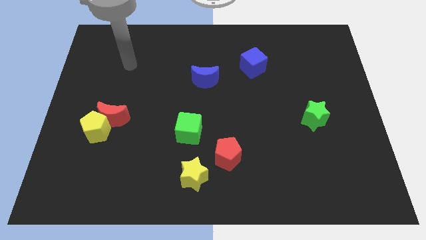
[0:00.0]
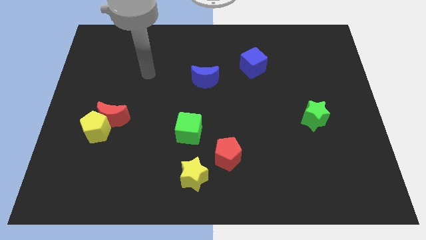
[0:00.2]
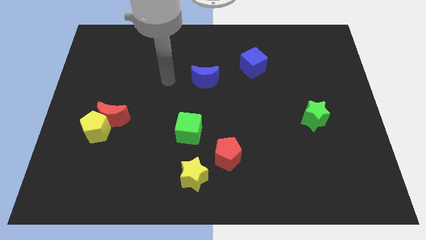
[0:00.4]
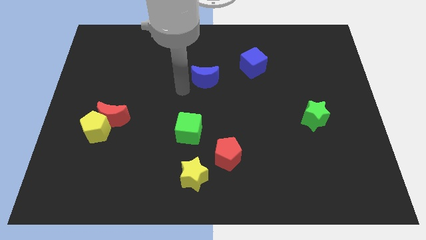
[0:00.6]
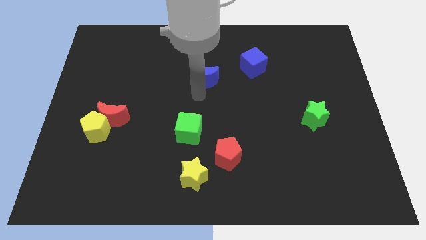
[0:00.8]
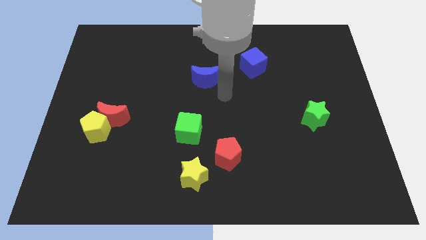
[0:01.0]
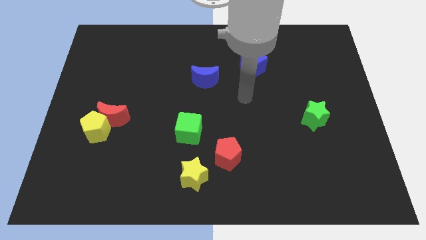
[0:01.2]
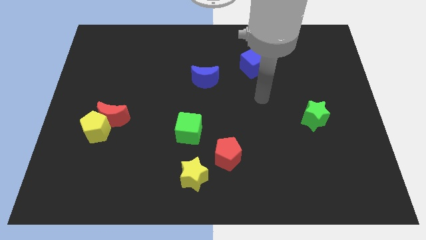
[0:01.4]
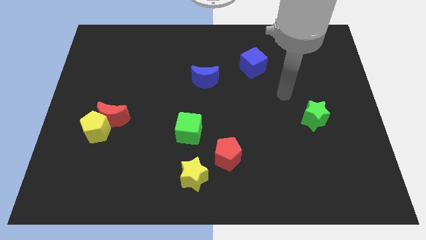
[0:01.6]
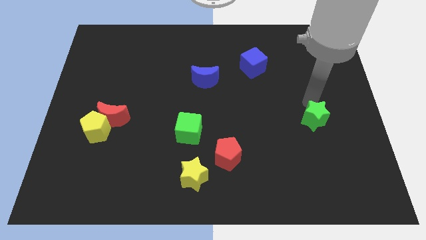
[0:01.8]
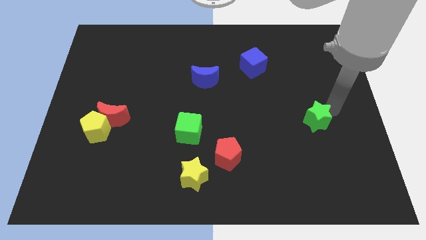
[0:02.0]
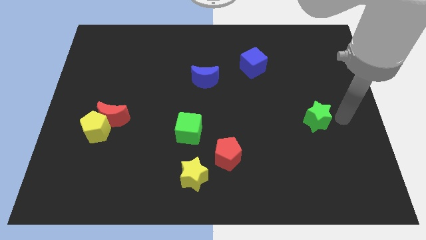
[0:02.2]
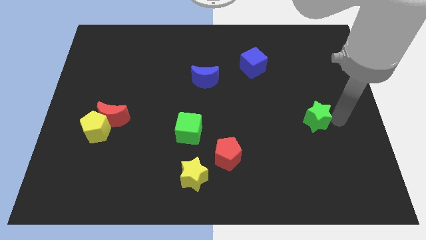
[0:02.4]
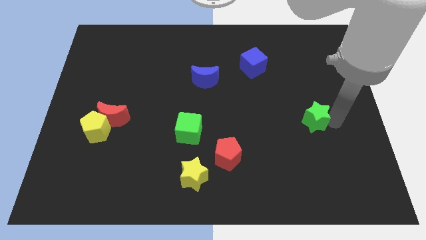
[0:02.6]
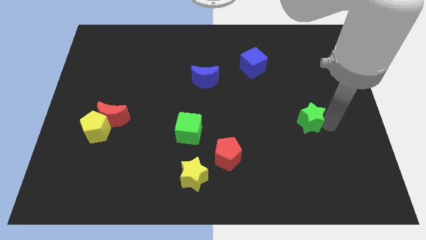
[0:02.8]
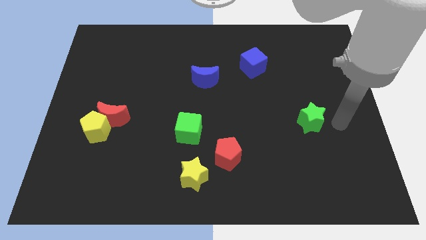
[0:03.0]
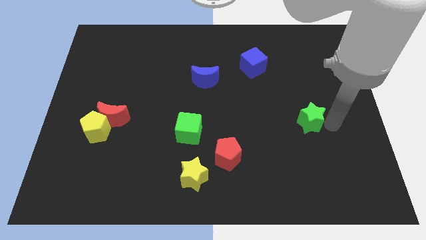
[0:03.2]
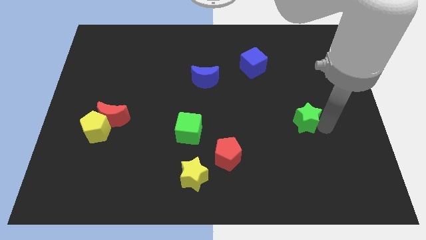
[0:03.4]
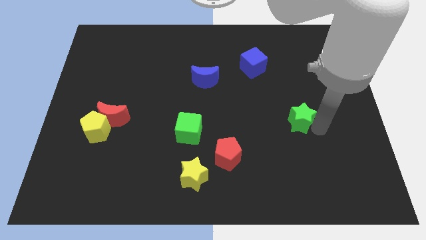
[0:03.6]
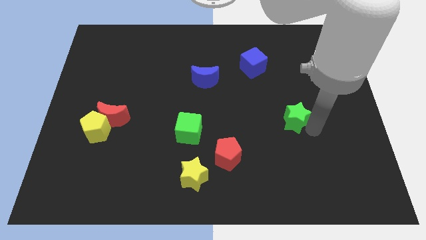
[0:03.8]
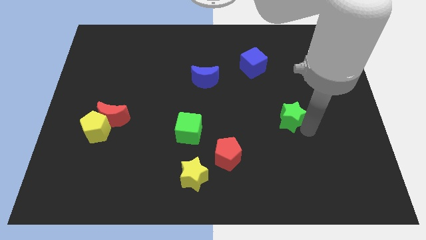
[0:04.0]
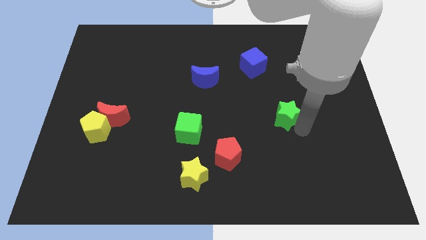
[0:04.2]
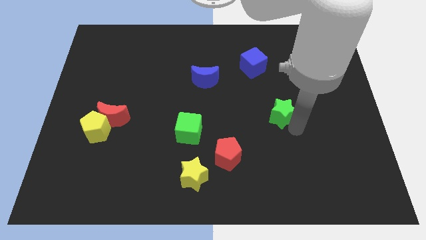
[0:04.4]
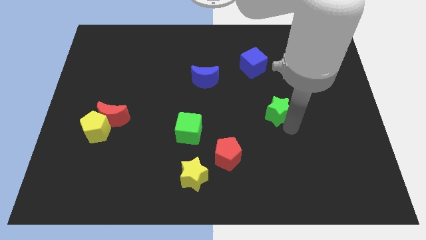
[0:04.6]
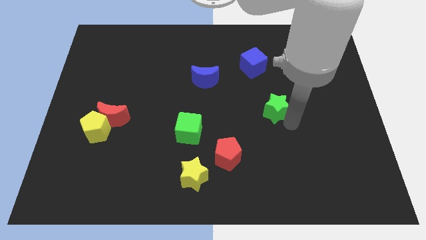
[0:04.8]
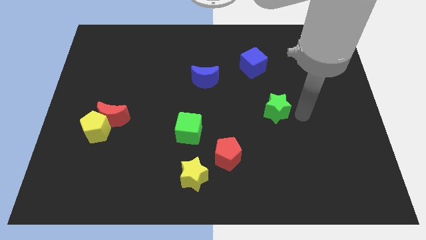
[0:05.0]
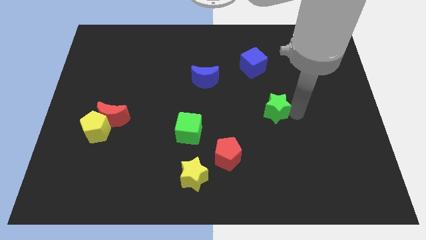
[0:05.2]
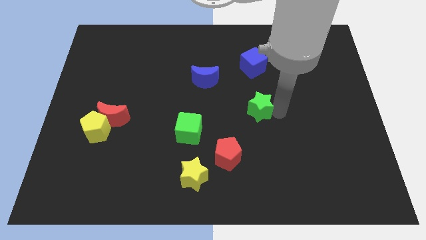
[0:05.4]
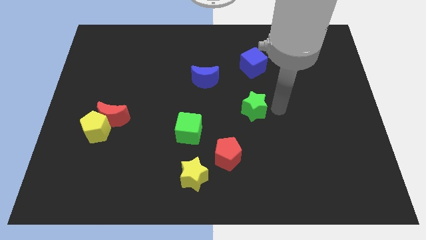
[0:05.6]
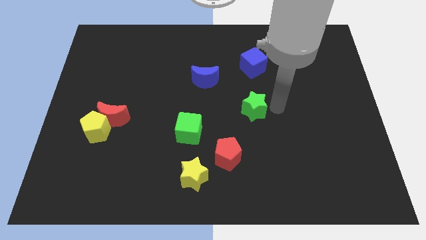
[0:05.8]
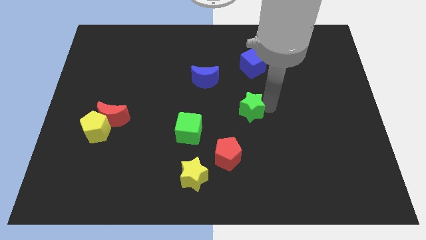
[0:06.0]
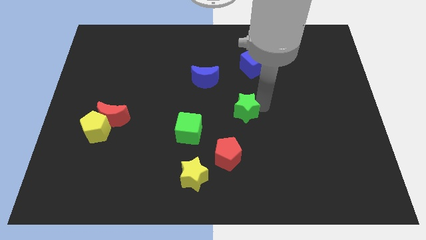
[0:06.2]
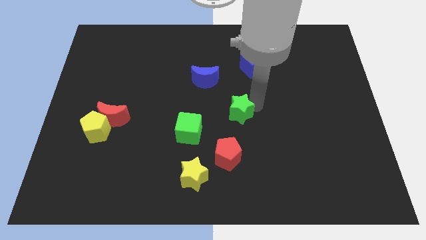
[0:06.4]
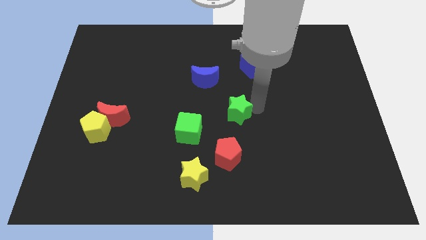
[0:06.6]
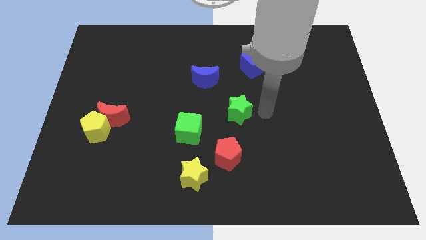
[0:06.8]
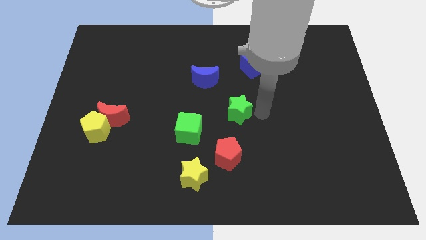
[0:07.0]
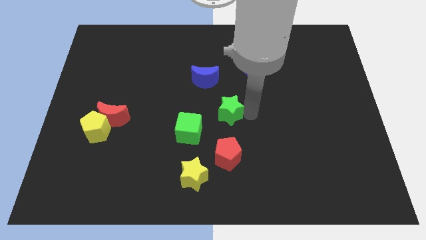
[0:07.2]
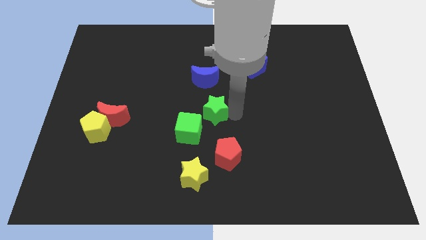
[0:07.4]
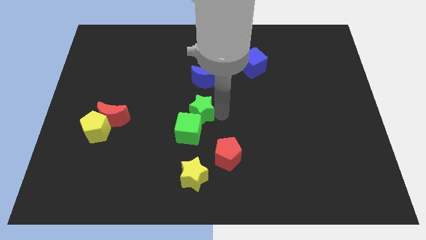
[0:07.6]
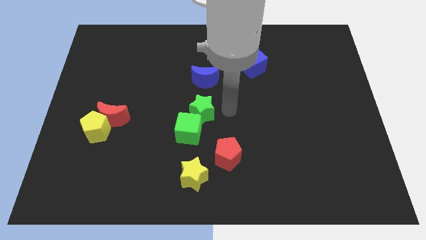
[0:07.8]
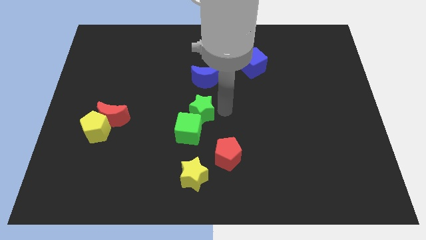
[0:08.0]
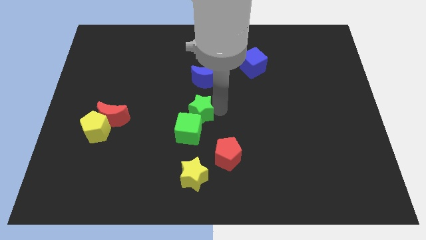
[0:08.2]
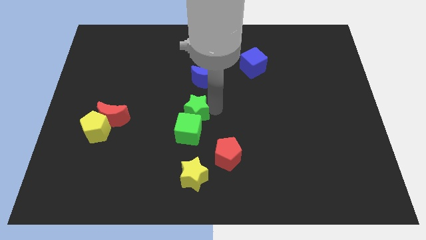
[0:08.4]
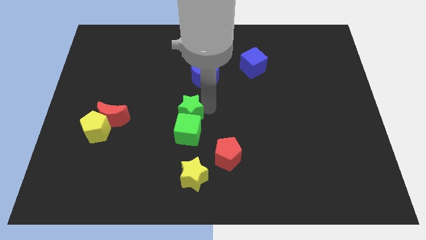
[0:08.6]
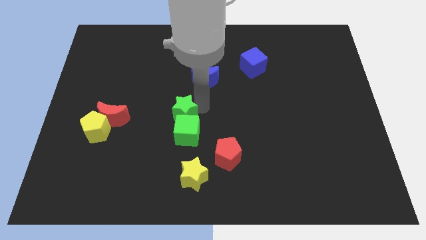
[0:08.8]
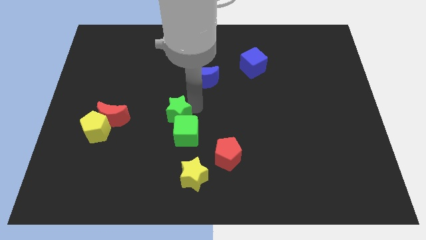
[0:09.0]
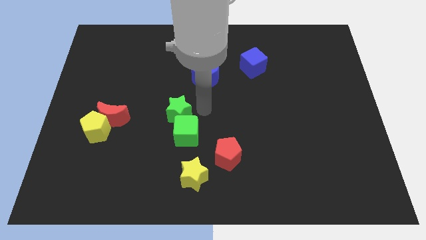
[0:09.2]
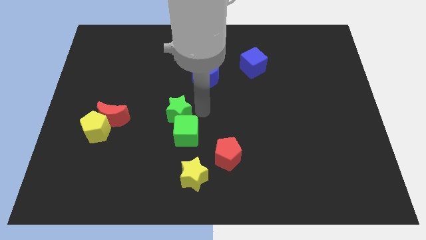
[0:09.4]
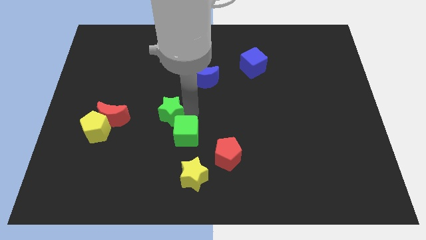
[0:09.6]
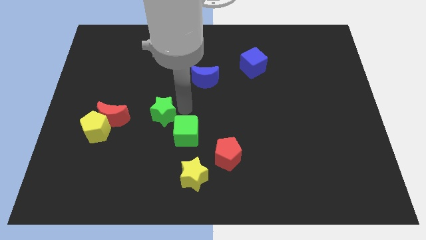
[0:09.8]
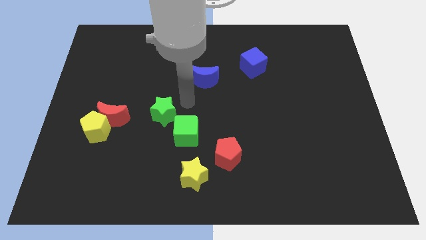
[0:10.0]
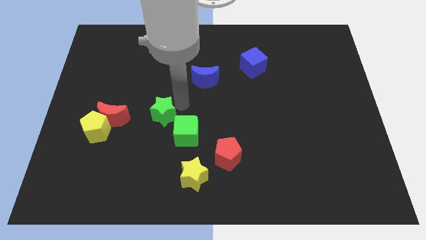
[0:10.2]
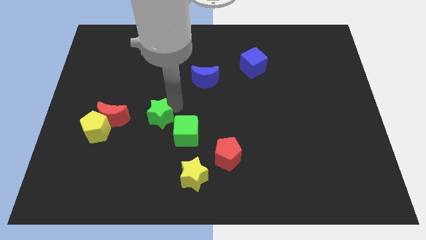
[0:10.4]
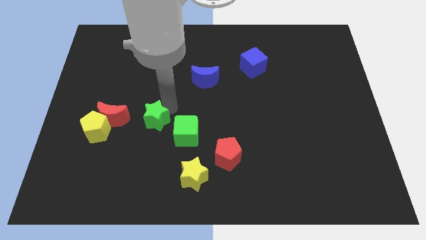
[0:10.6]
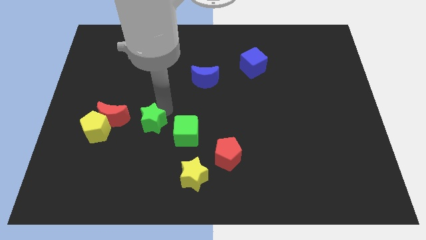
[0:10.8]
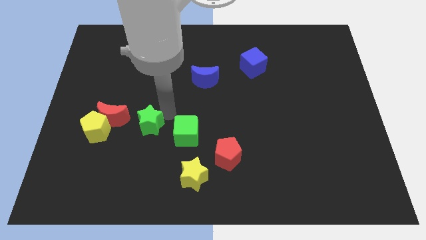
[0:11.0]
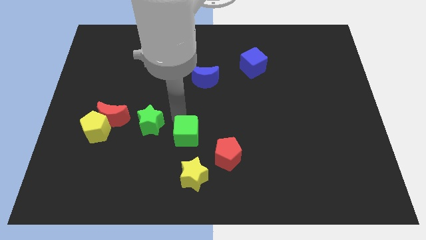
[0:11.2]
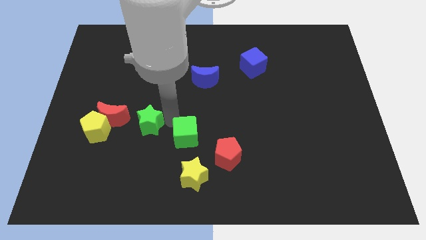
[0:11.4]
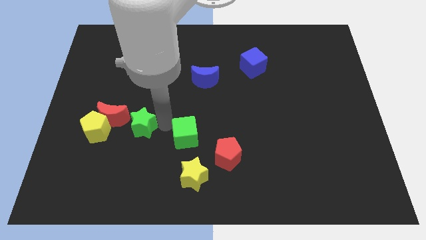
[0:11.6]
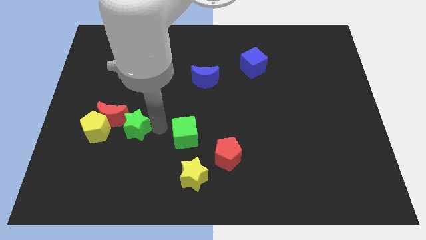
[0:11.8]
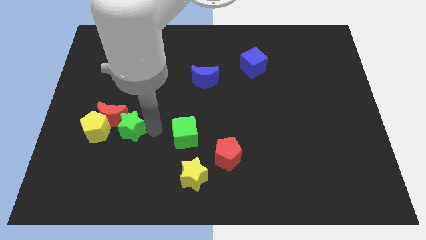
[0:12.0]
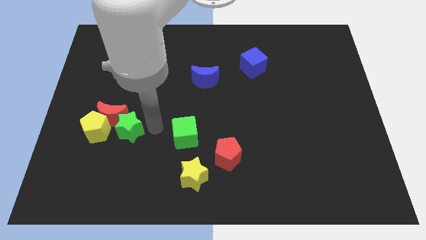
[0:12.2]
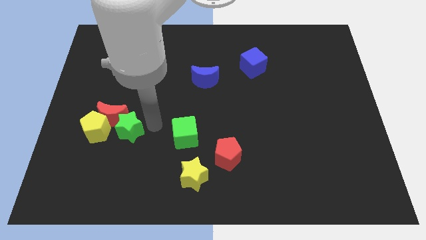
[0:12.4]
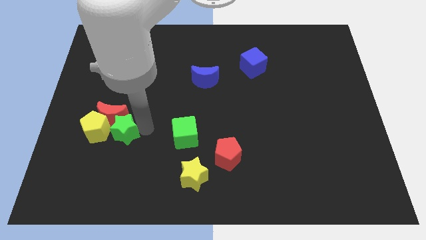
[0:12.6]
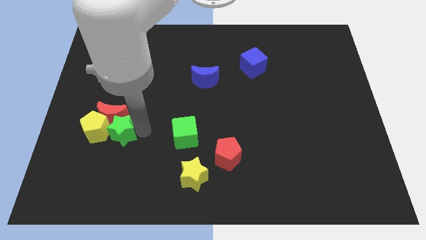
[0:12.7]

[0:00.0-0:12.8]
push the green star next to the yellow pentagon

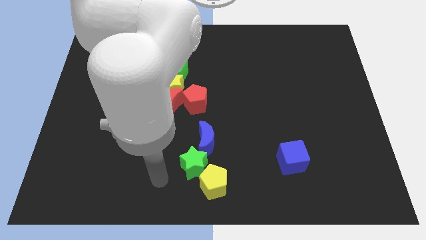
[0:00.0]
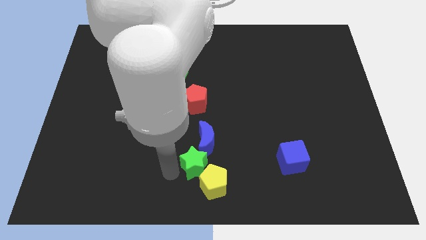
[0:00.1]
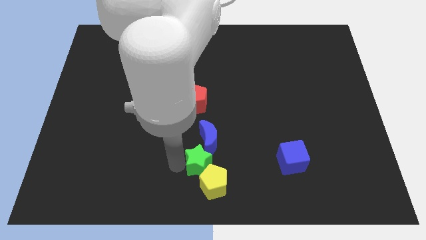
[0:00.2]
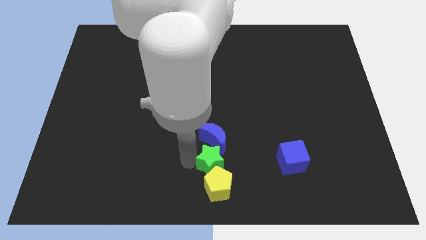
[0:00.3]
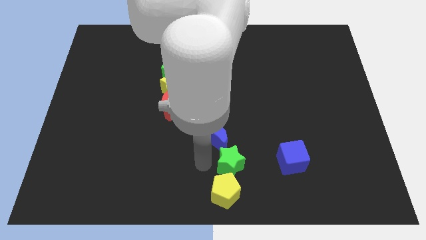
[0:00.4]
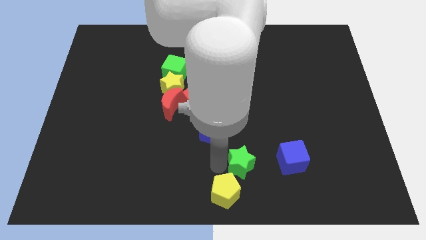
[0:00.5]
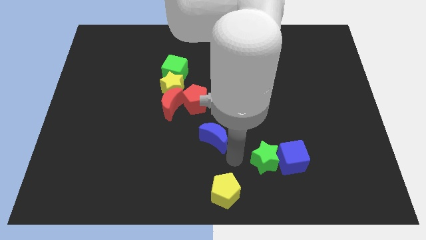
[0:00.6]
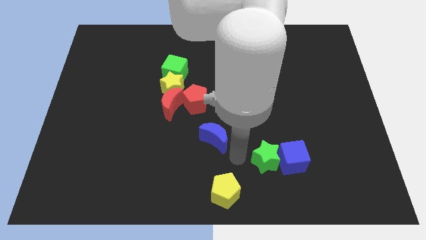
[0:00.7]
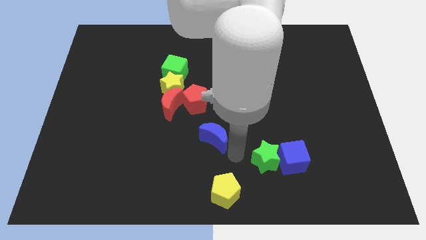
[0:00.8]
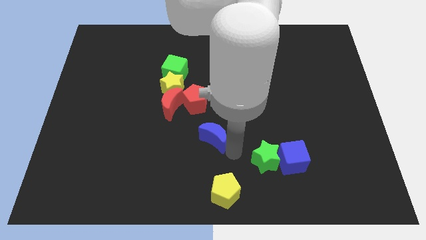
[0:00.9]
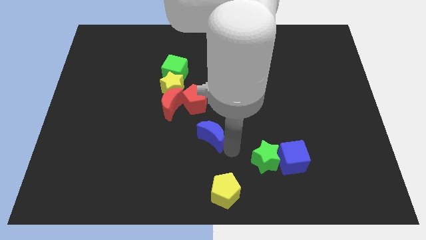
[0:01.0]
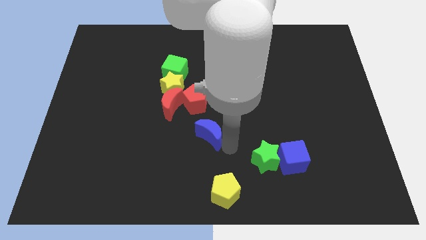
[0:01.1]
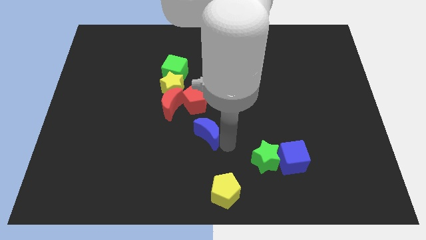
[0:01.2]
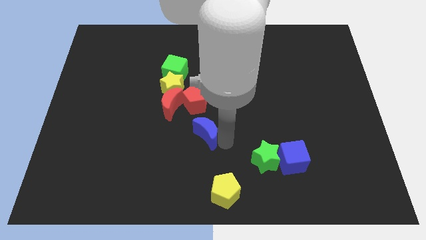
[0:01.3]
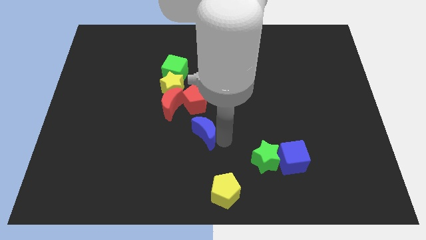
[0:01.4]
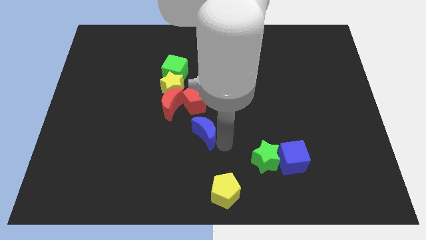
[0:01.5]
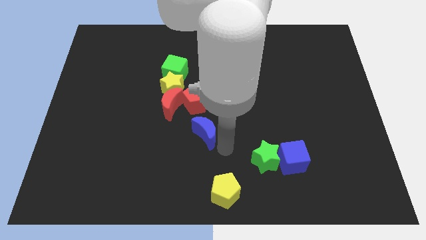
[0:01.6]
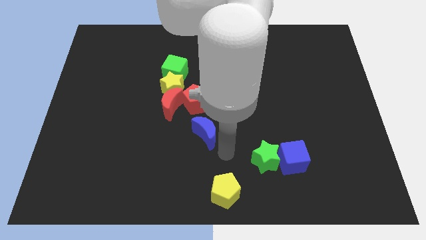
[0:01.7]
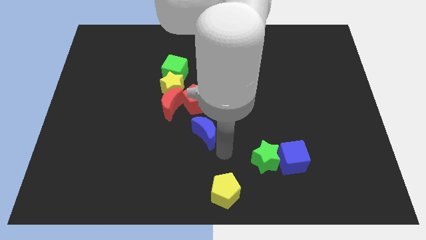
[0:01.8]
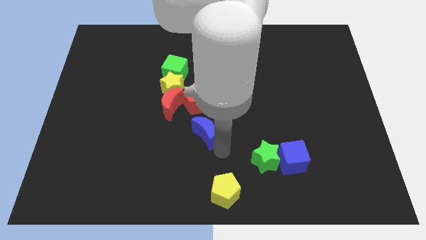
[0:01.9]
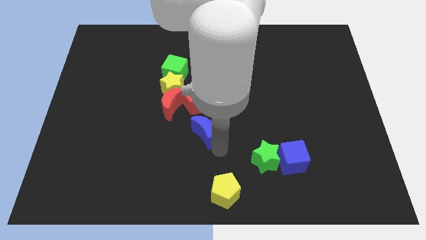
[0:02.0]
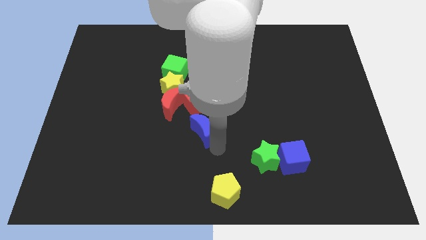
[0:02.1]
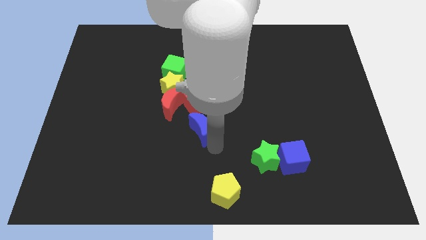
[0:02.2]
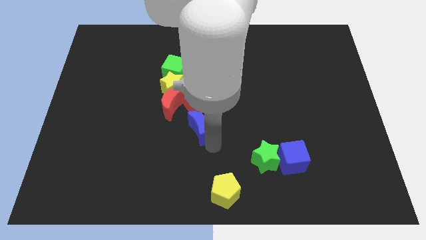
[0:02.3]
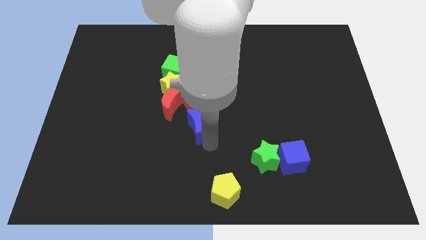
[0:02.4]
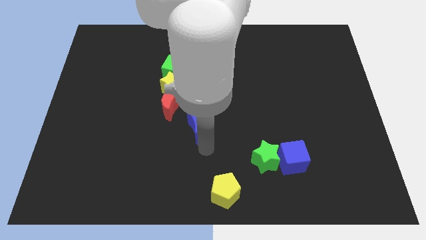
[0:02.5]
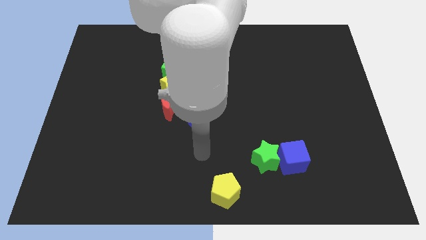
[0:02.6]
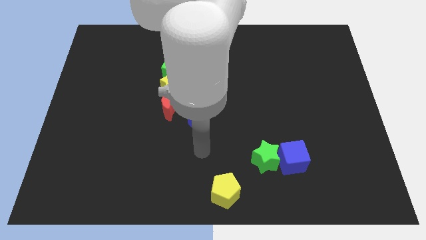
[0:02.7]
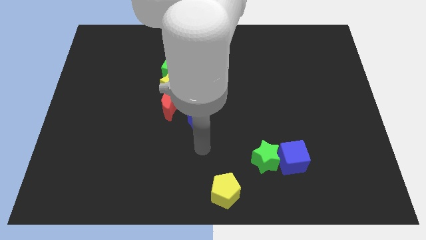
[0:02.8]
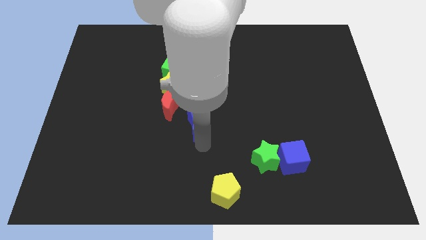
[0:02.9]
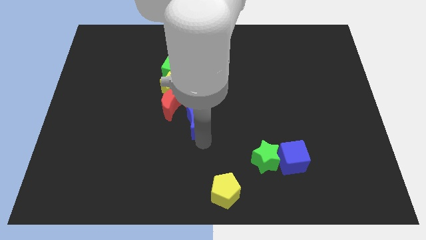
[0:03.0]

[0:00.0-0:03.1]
move the blue moon towards the red pentagon
